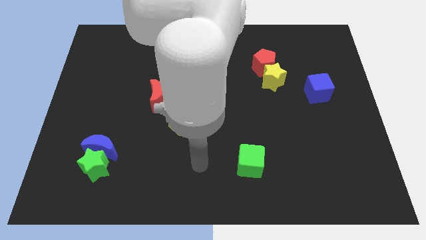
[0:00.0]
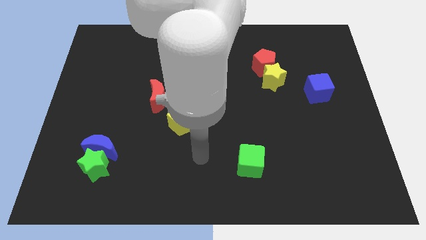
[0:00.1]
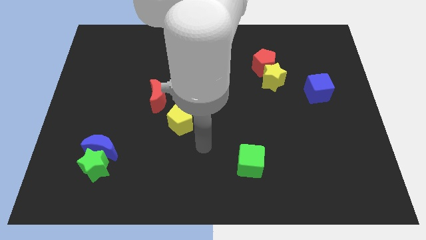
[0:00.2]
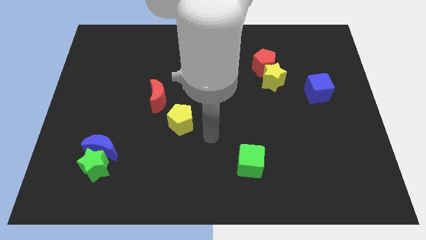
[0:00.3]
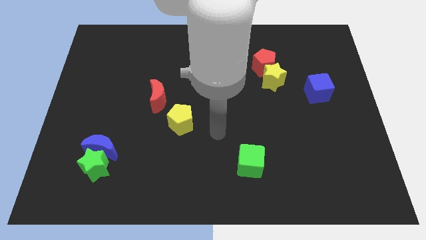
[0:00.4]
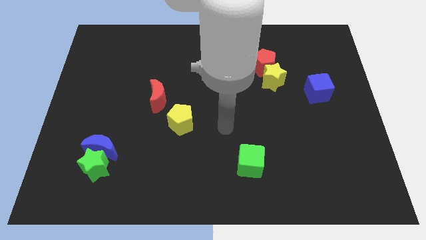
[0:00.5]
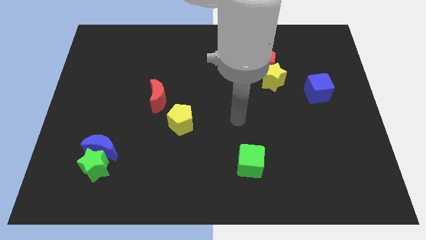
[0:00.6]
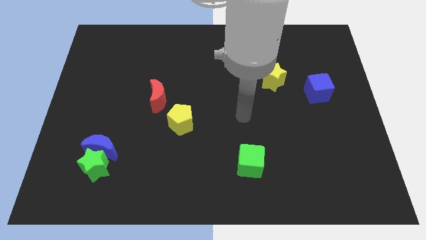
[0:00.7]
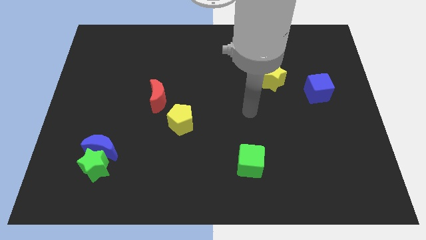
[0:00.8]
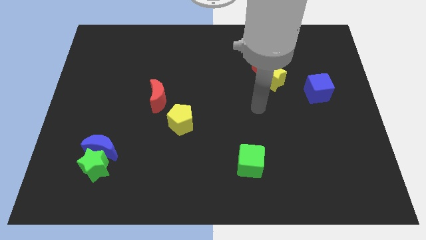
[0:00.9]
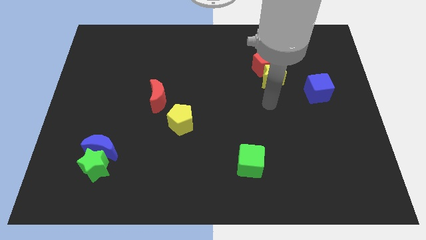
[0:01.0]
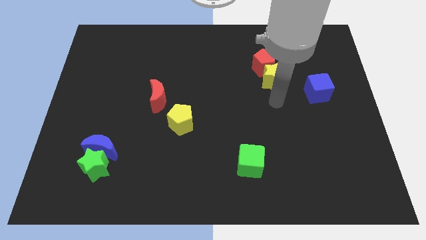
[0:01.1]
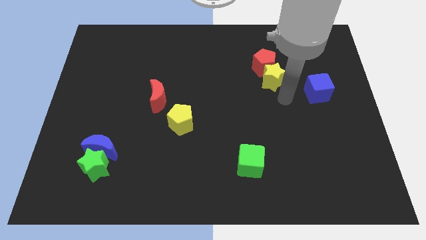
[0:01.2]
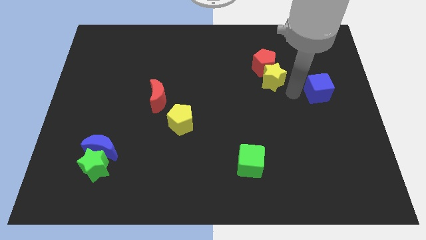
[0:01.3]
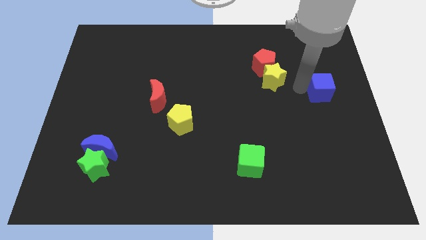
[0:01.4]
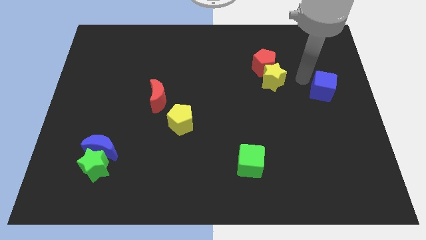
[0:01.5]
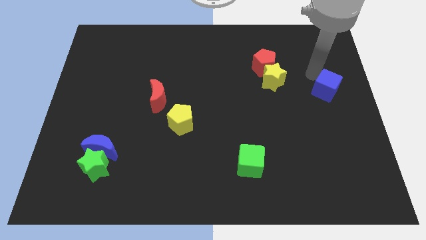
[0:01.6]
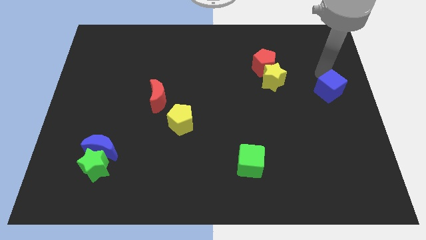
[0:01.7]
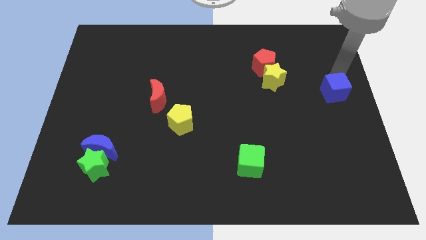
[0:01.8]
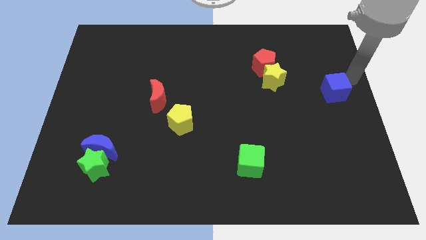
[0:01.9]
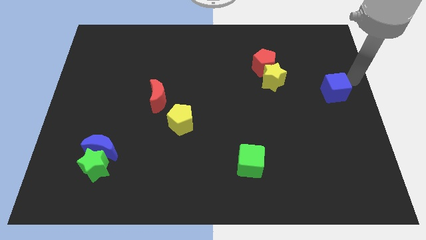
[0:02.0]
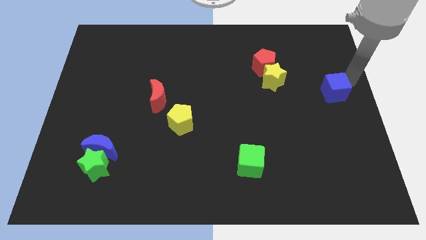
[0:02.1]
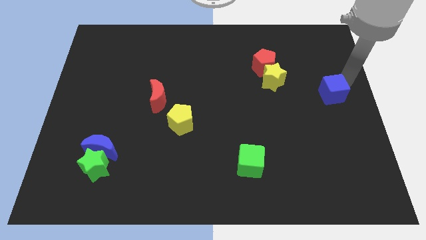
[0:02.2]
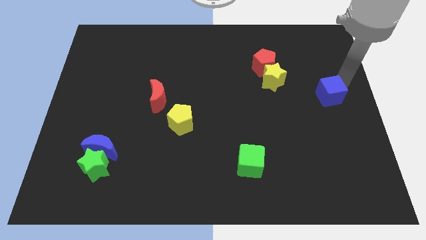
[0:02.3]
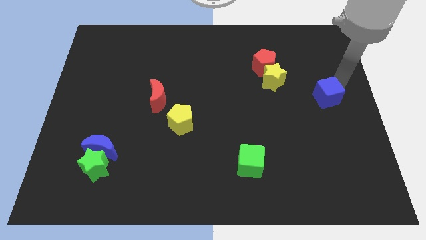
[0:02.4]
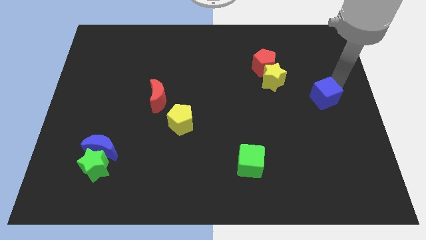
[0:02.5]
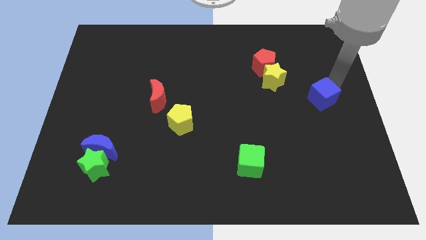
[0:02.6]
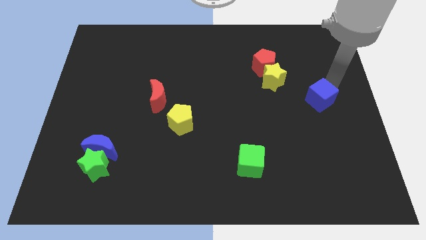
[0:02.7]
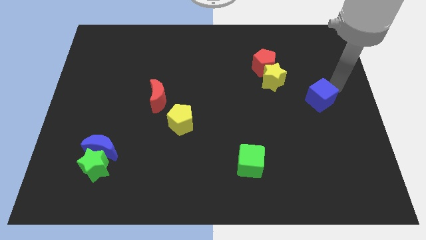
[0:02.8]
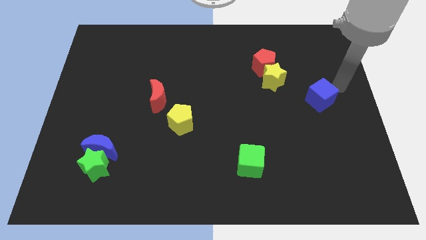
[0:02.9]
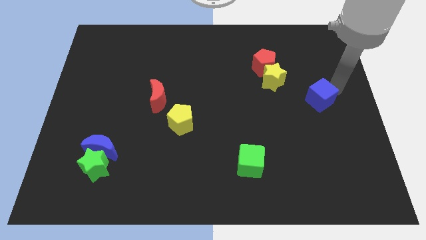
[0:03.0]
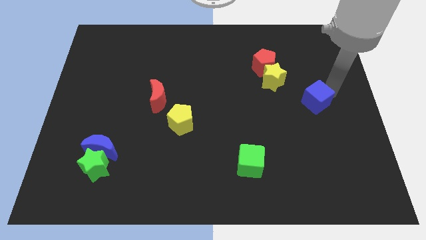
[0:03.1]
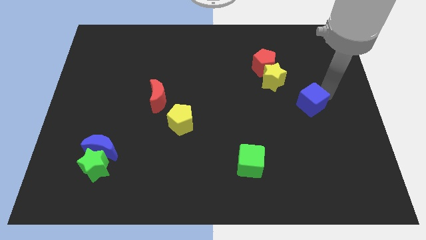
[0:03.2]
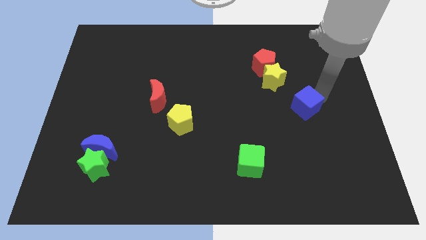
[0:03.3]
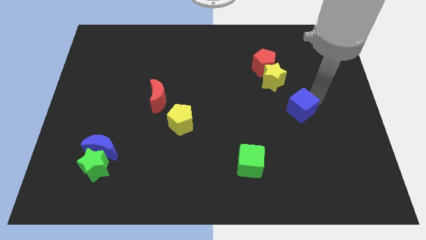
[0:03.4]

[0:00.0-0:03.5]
slightly slide the blue cube downwards and left diagonally

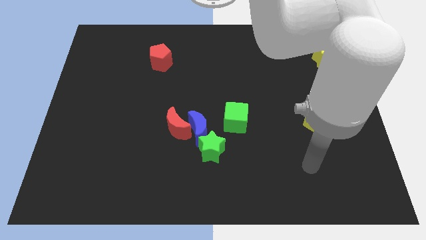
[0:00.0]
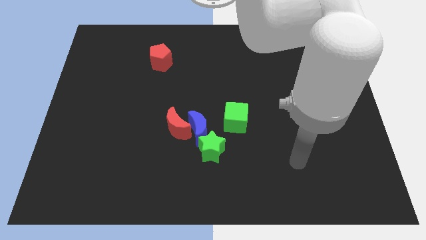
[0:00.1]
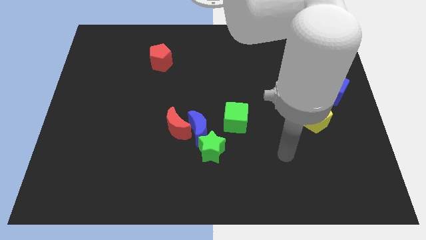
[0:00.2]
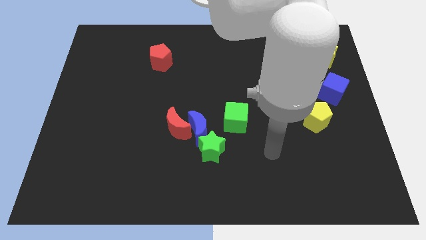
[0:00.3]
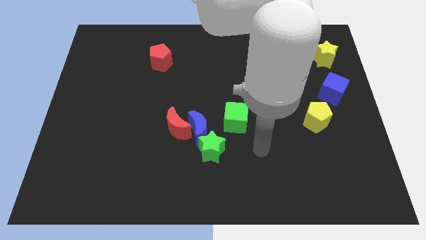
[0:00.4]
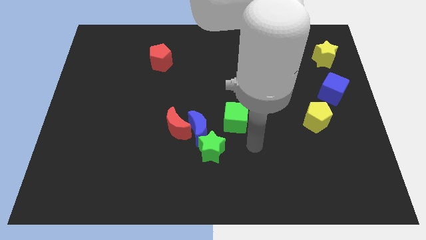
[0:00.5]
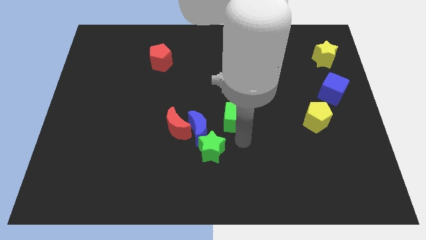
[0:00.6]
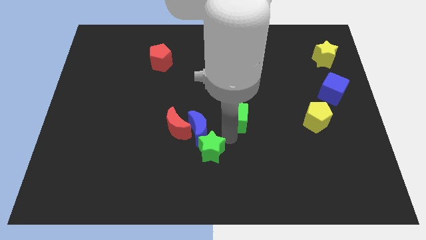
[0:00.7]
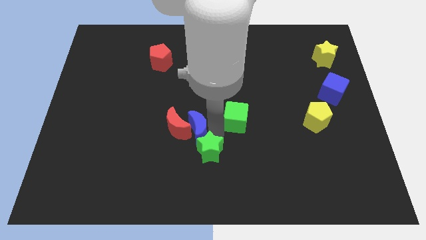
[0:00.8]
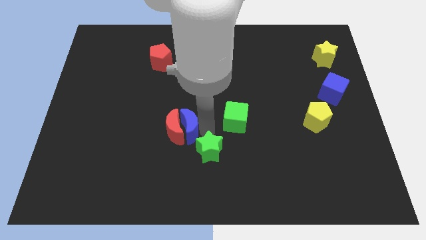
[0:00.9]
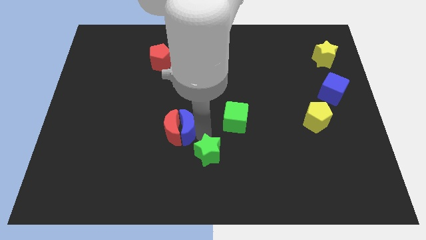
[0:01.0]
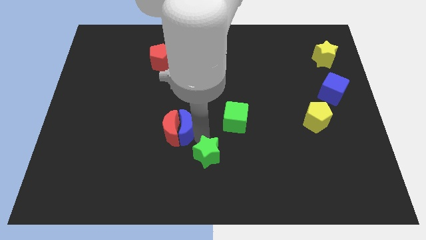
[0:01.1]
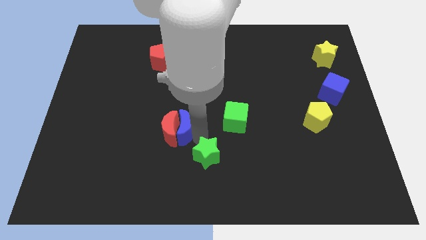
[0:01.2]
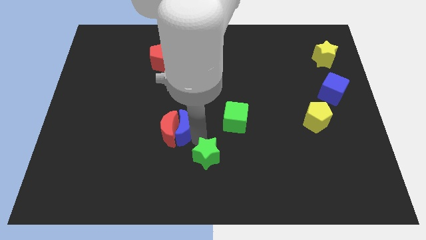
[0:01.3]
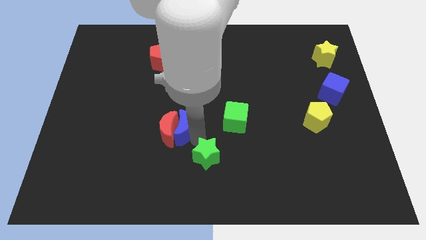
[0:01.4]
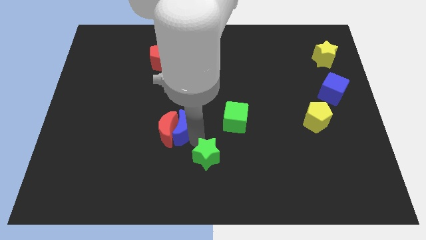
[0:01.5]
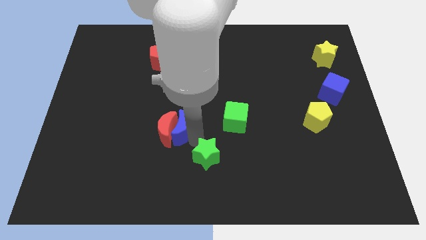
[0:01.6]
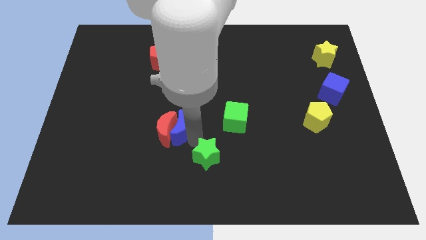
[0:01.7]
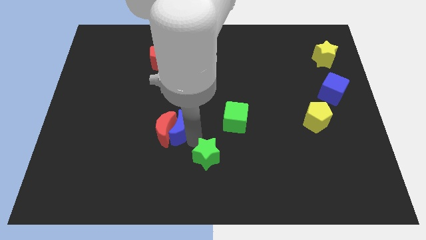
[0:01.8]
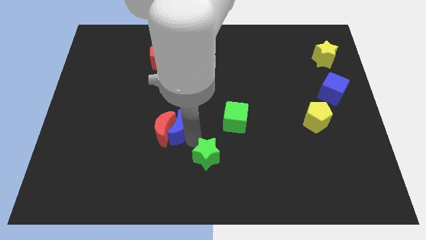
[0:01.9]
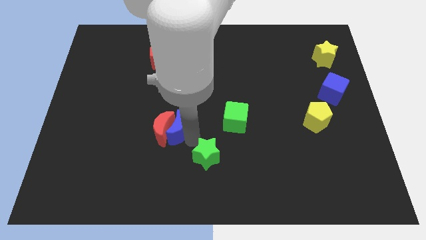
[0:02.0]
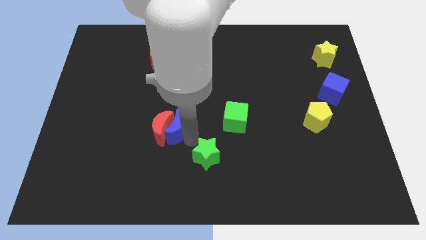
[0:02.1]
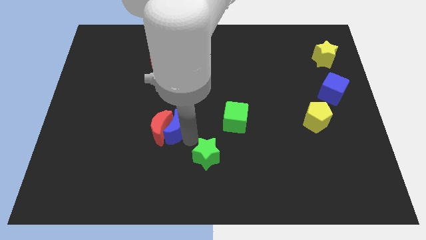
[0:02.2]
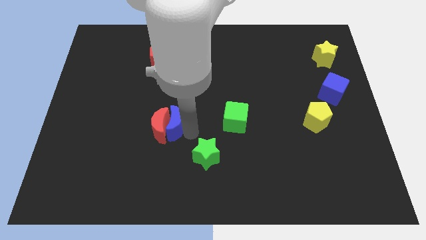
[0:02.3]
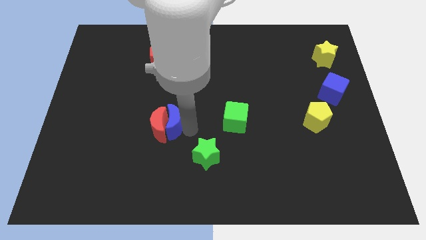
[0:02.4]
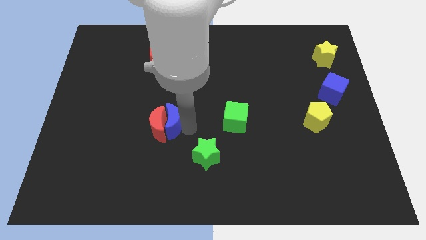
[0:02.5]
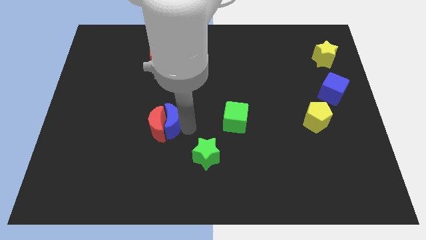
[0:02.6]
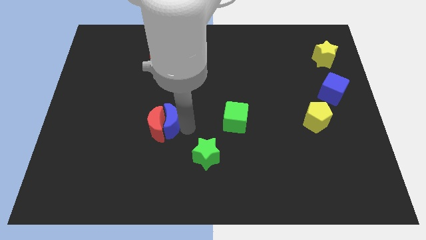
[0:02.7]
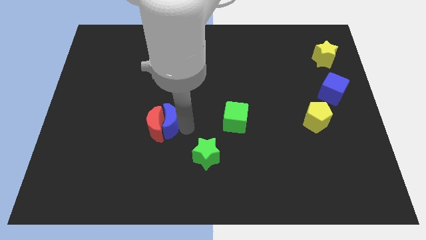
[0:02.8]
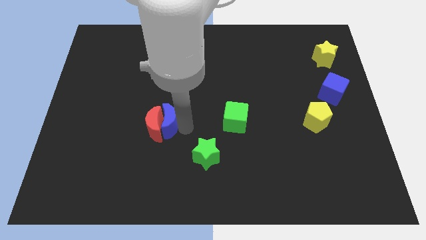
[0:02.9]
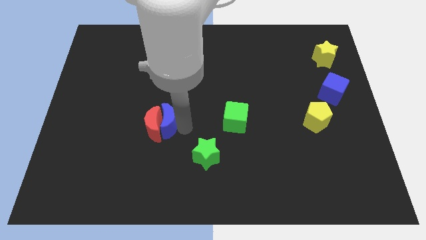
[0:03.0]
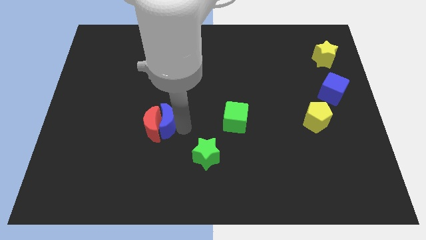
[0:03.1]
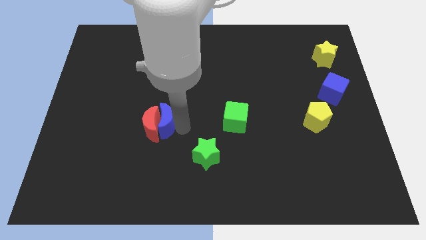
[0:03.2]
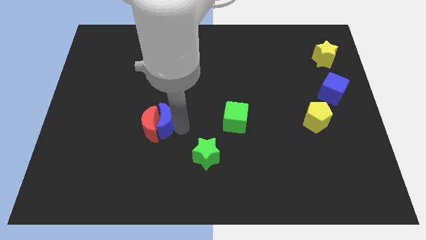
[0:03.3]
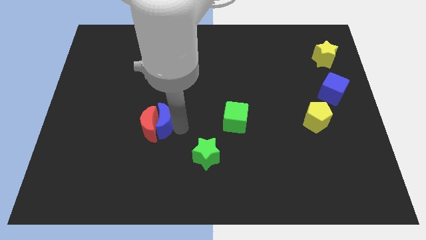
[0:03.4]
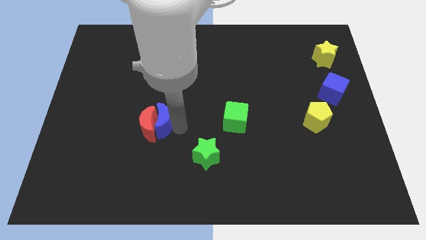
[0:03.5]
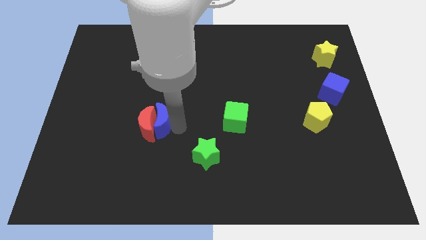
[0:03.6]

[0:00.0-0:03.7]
slightly slide the red moon to the left

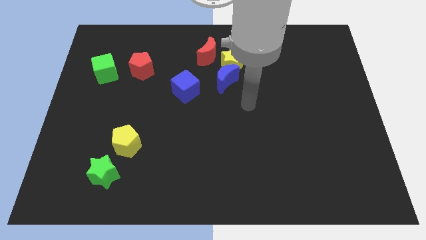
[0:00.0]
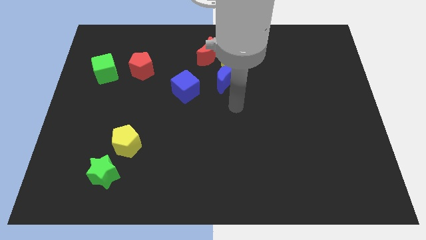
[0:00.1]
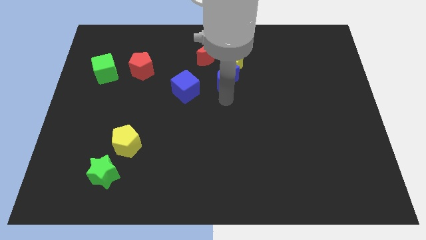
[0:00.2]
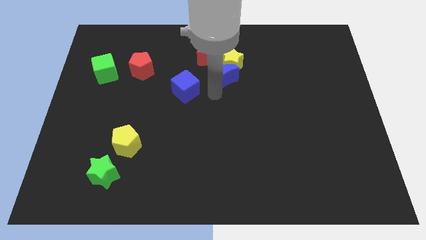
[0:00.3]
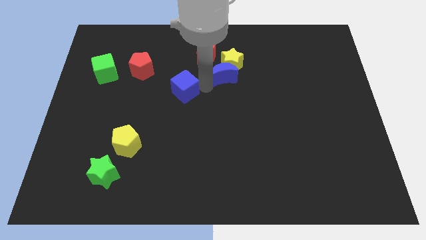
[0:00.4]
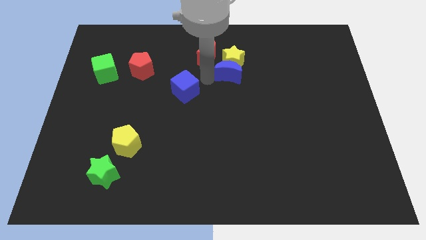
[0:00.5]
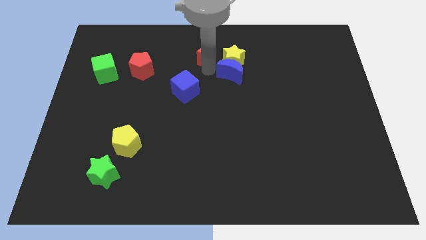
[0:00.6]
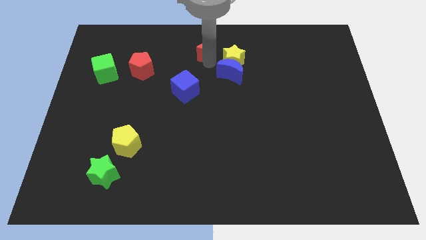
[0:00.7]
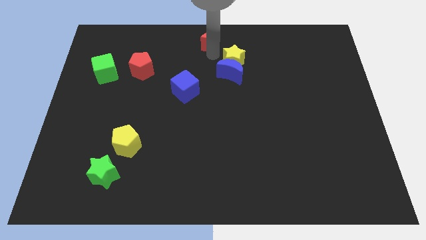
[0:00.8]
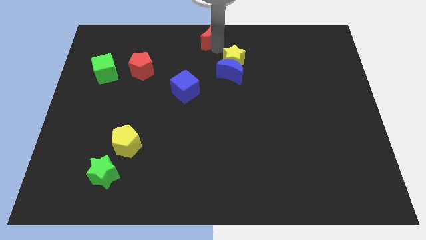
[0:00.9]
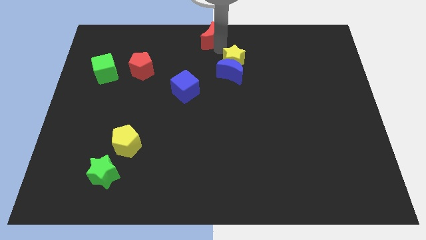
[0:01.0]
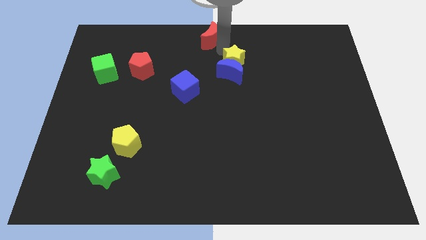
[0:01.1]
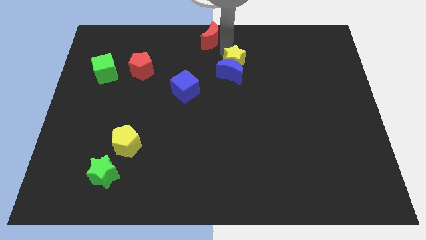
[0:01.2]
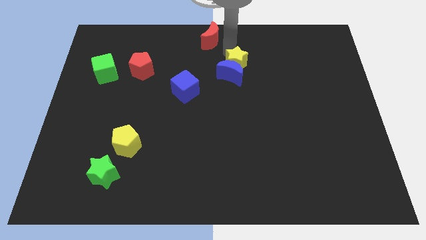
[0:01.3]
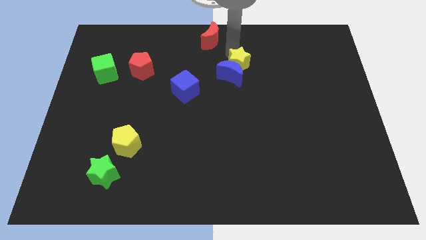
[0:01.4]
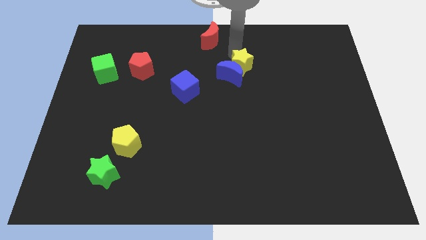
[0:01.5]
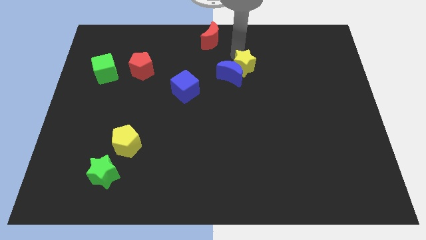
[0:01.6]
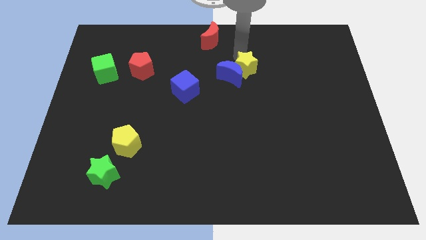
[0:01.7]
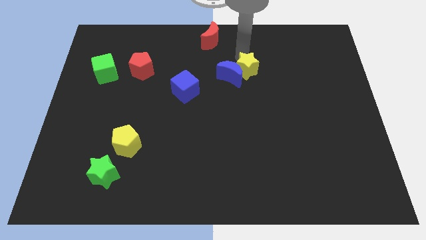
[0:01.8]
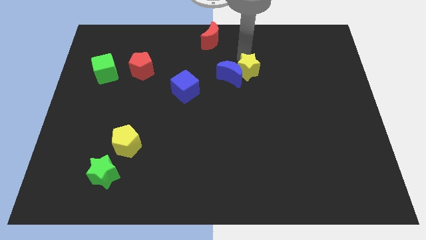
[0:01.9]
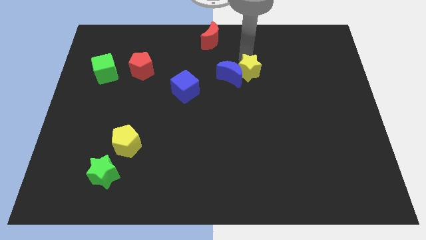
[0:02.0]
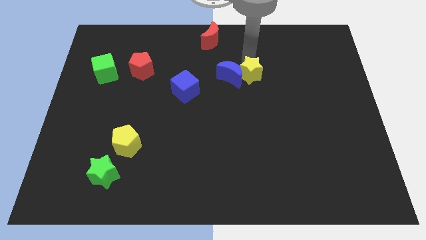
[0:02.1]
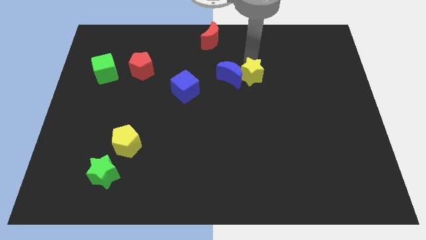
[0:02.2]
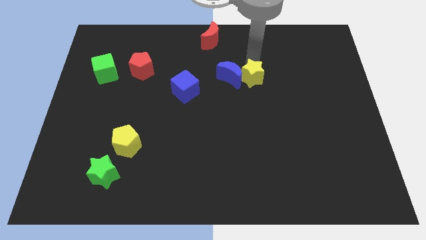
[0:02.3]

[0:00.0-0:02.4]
slightly slide the yellow star down and to the right
